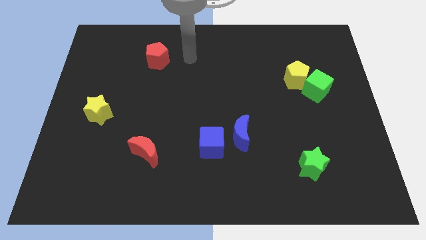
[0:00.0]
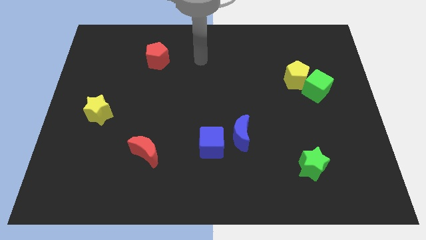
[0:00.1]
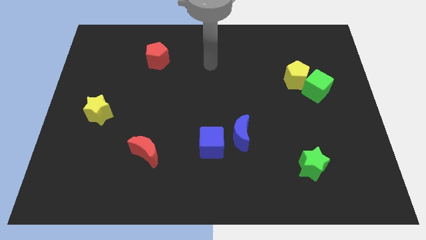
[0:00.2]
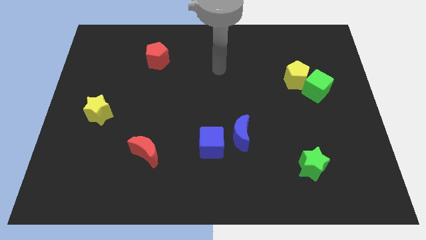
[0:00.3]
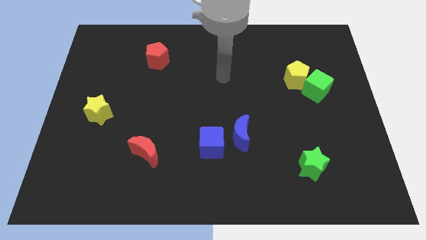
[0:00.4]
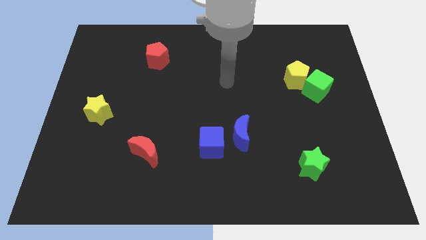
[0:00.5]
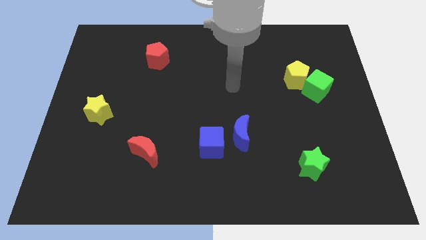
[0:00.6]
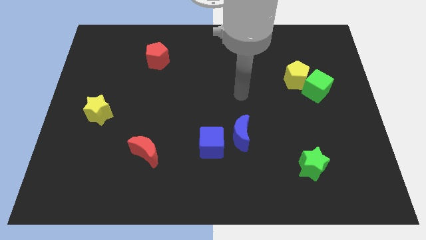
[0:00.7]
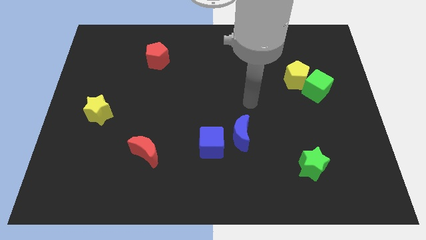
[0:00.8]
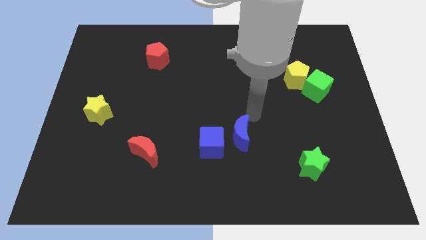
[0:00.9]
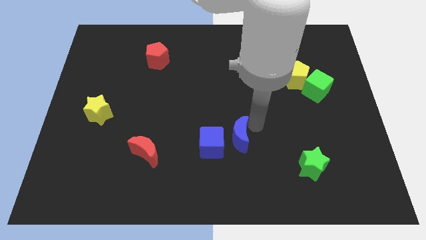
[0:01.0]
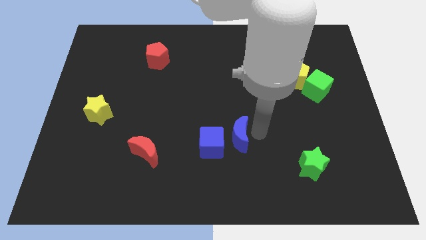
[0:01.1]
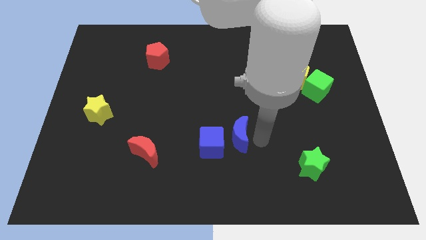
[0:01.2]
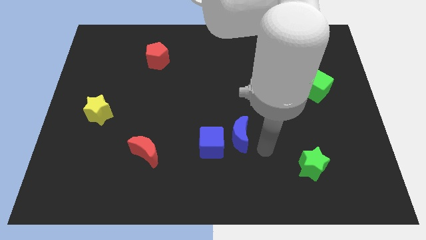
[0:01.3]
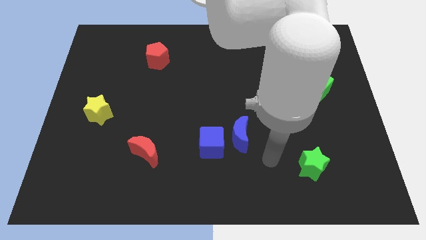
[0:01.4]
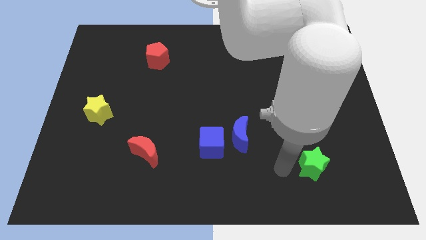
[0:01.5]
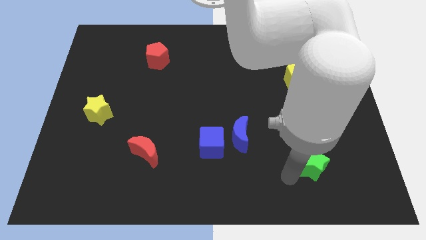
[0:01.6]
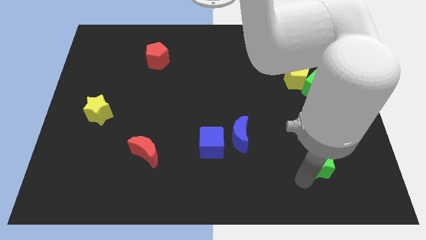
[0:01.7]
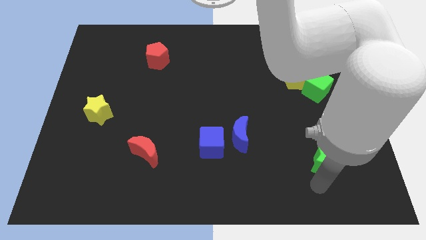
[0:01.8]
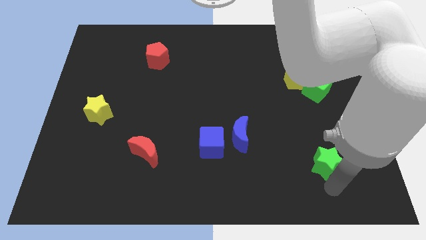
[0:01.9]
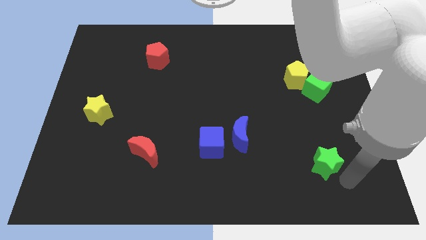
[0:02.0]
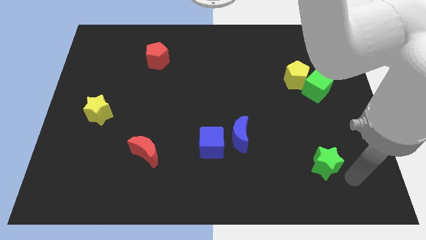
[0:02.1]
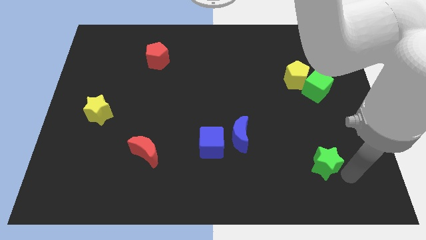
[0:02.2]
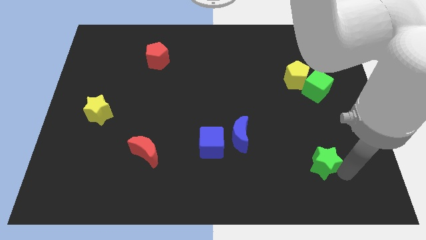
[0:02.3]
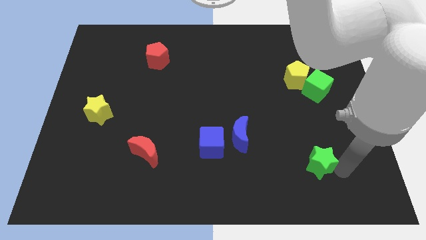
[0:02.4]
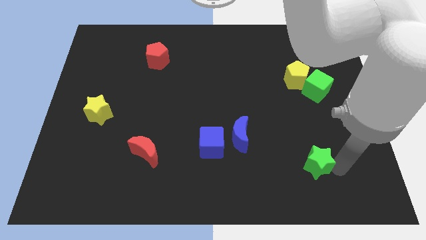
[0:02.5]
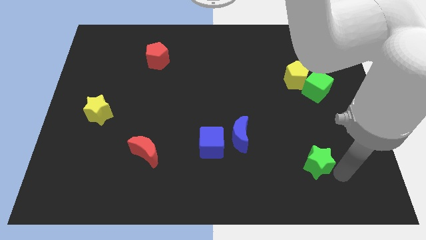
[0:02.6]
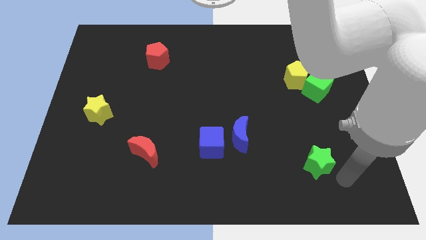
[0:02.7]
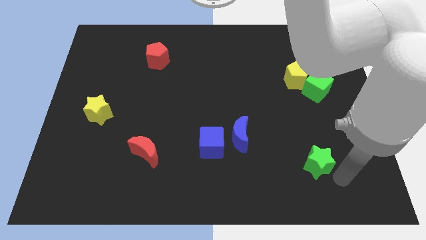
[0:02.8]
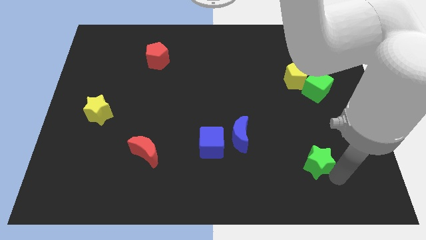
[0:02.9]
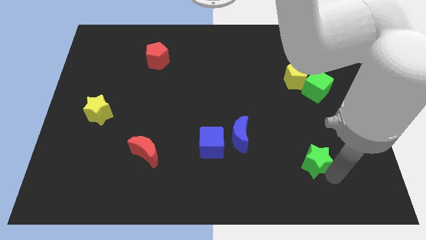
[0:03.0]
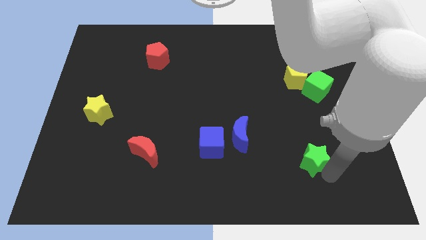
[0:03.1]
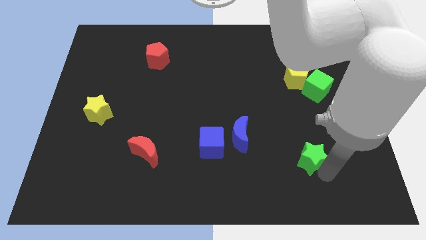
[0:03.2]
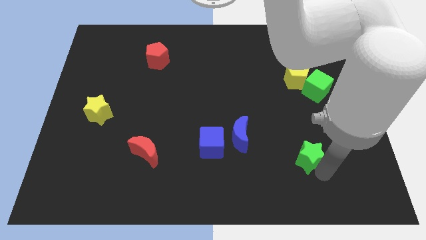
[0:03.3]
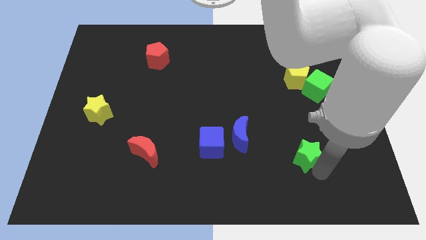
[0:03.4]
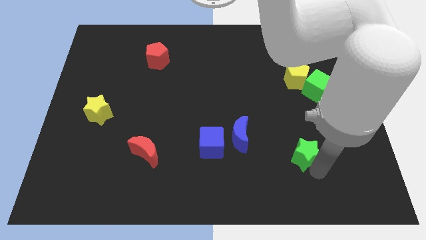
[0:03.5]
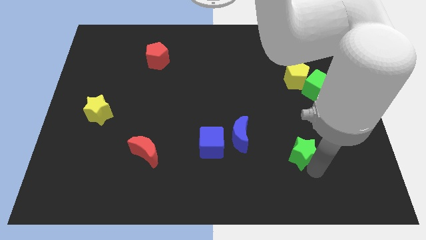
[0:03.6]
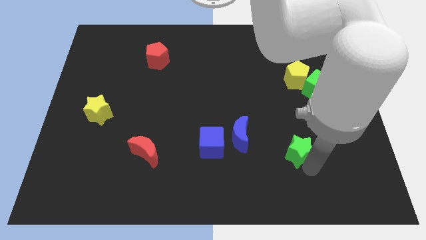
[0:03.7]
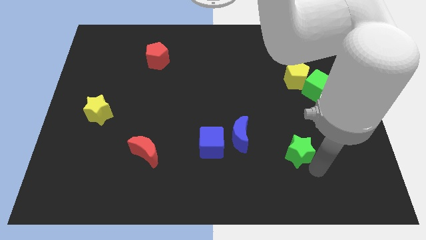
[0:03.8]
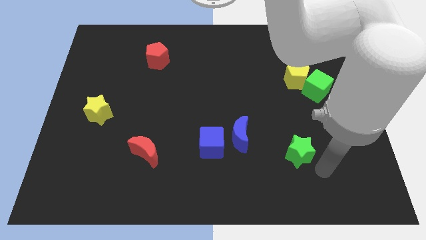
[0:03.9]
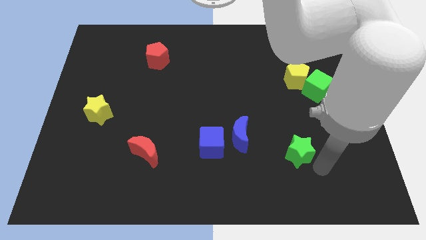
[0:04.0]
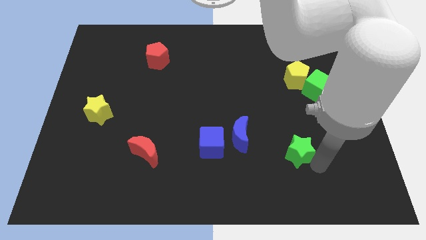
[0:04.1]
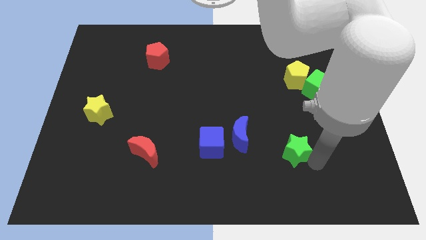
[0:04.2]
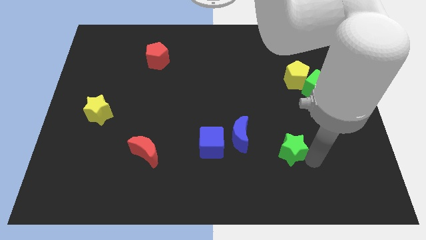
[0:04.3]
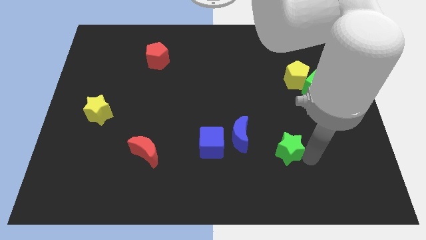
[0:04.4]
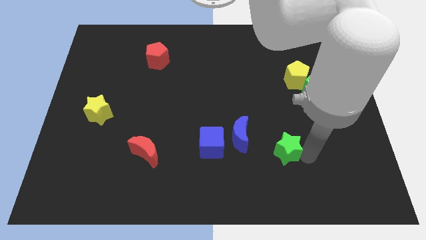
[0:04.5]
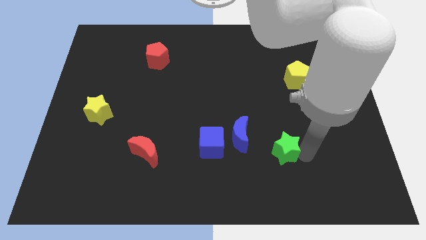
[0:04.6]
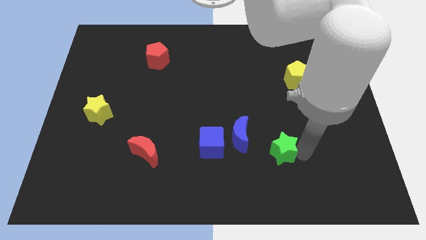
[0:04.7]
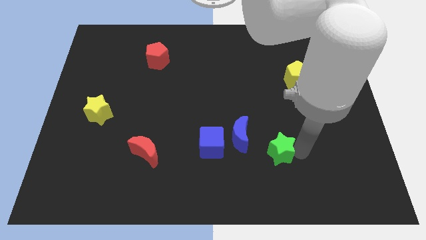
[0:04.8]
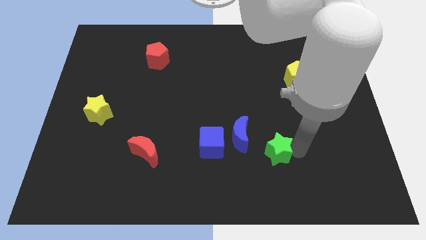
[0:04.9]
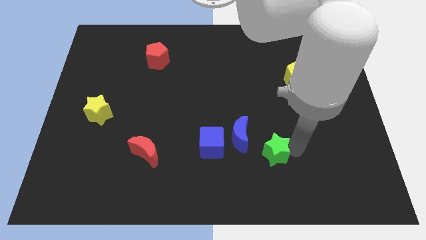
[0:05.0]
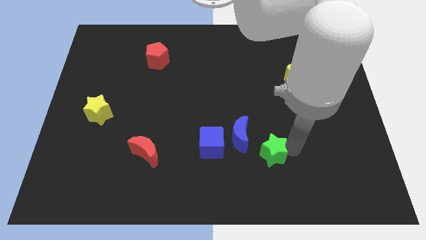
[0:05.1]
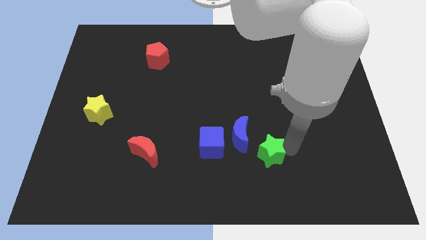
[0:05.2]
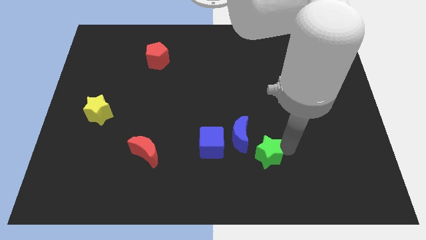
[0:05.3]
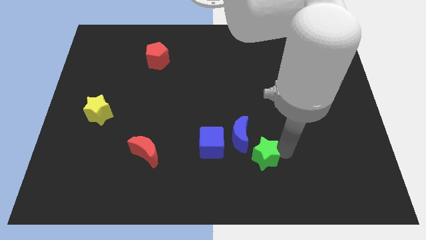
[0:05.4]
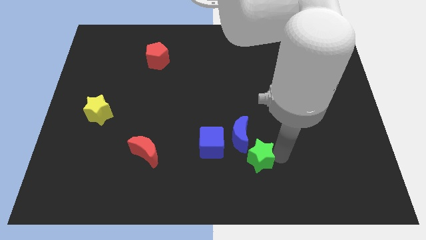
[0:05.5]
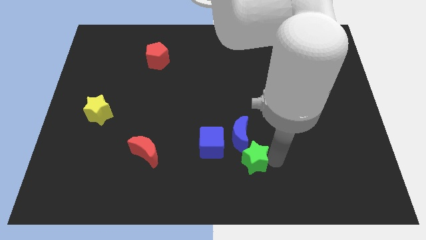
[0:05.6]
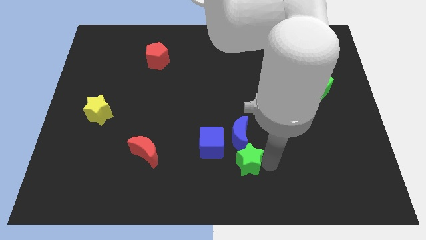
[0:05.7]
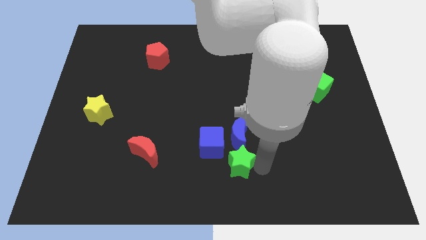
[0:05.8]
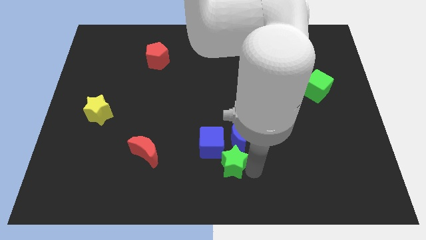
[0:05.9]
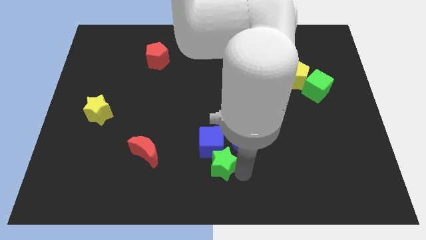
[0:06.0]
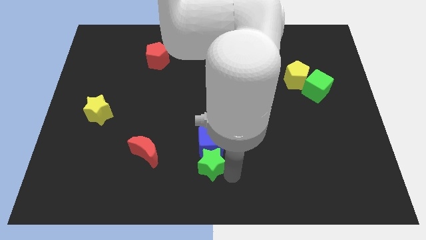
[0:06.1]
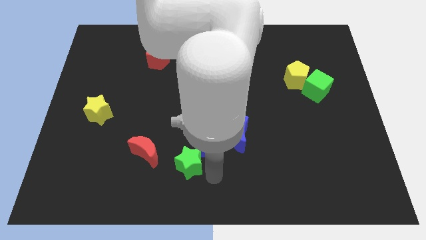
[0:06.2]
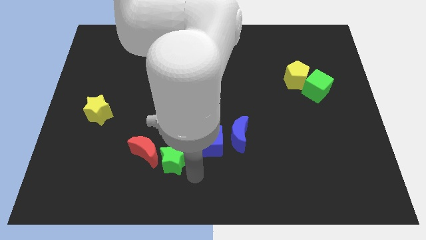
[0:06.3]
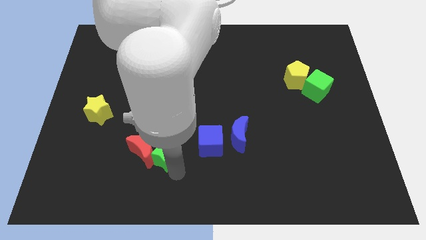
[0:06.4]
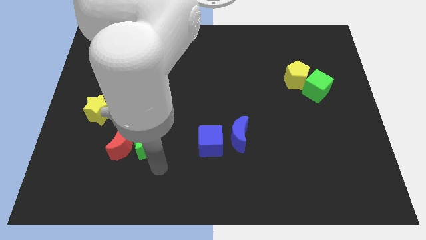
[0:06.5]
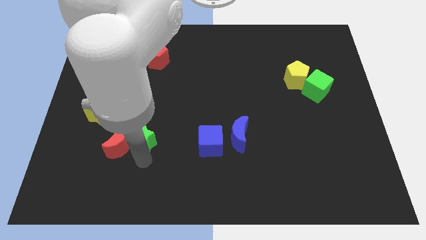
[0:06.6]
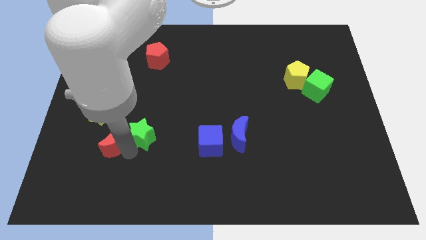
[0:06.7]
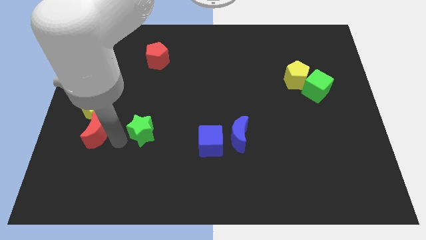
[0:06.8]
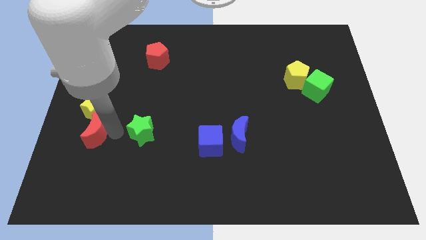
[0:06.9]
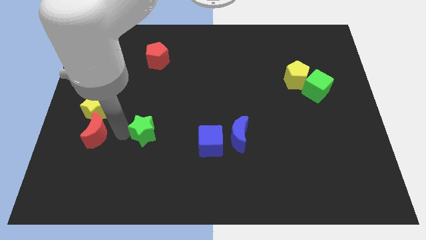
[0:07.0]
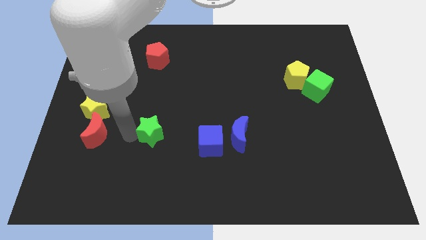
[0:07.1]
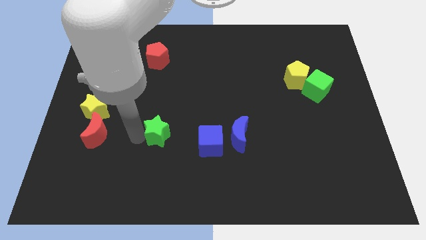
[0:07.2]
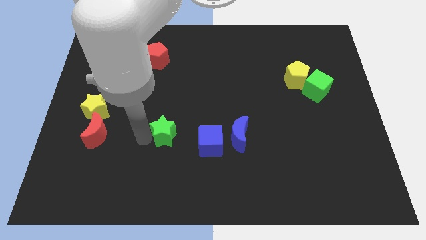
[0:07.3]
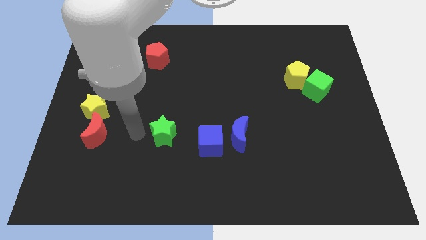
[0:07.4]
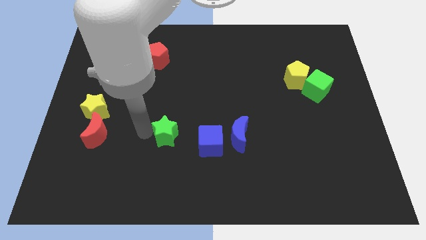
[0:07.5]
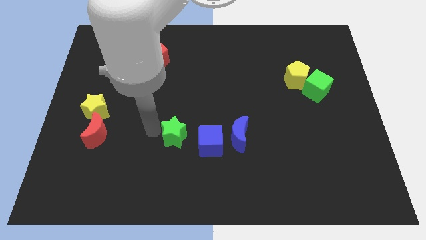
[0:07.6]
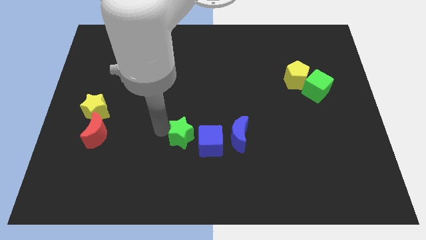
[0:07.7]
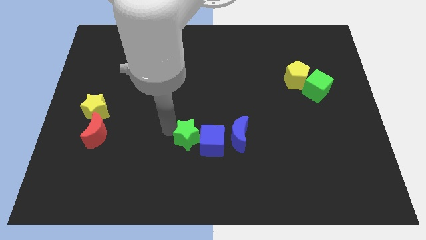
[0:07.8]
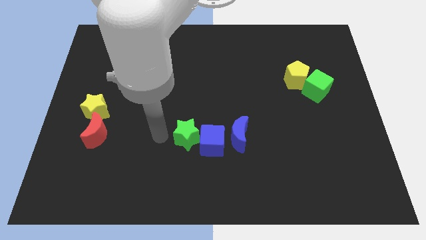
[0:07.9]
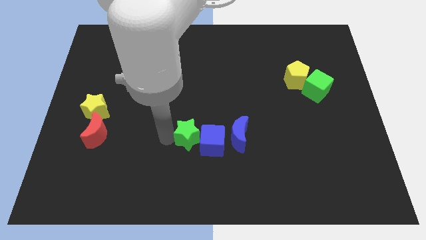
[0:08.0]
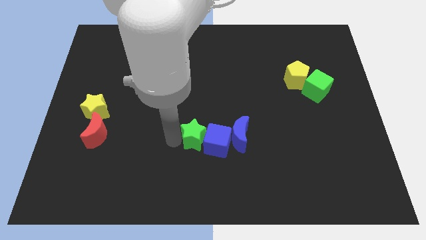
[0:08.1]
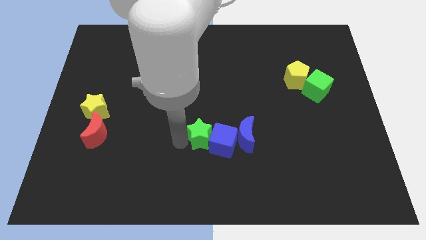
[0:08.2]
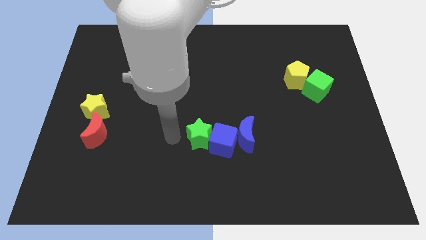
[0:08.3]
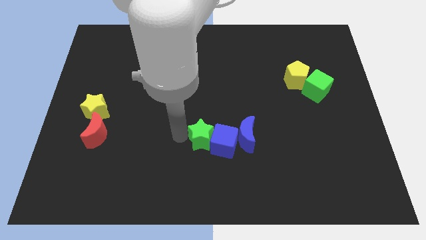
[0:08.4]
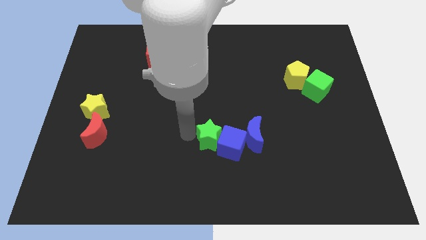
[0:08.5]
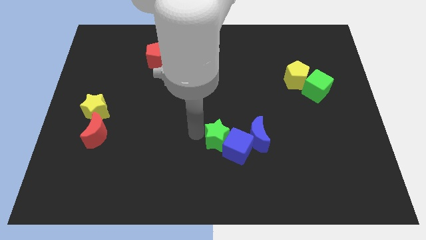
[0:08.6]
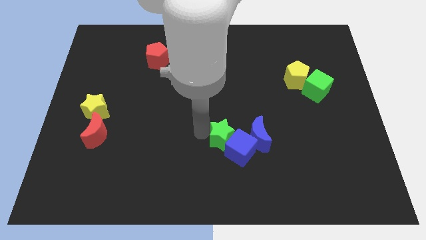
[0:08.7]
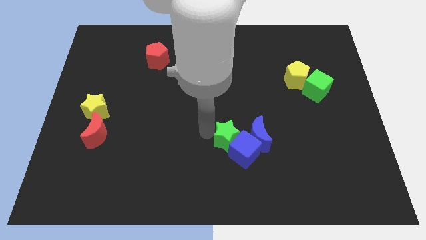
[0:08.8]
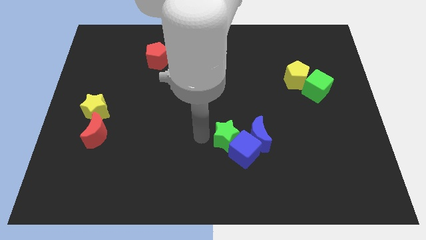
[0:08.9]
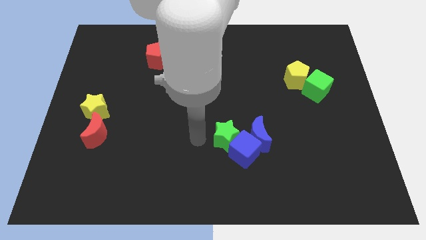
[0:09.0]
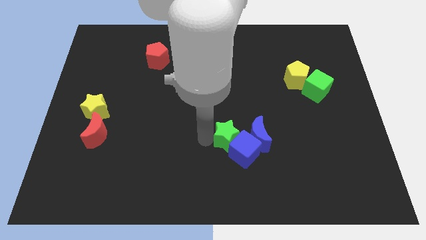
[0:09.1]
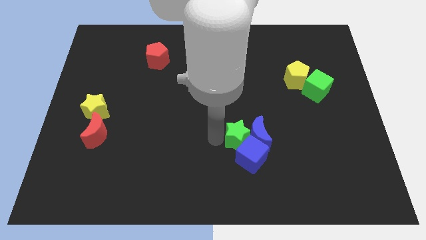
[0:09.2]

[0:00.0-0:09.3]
slide the green star close to the blue moon
